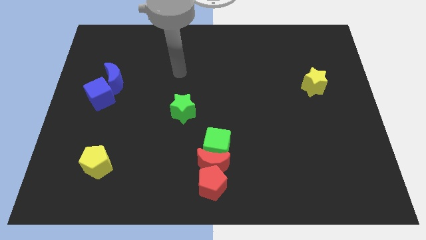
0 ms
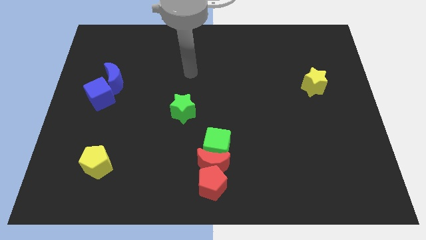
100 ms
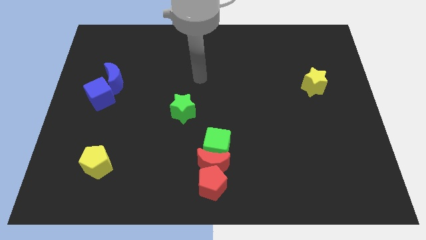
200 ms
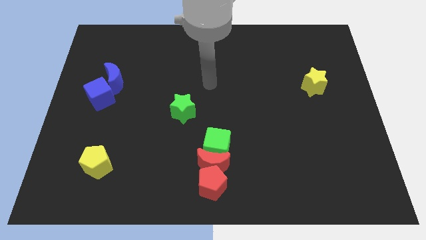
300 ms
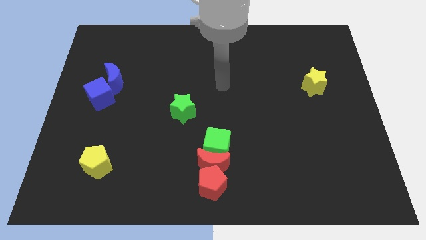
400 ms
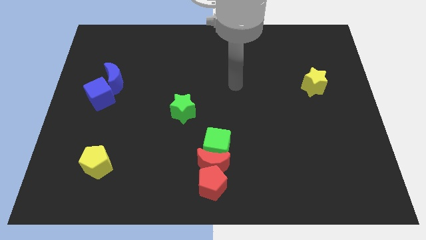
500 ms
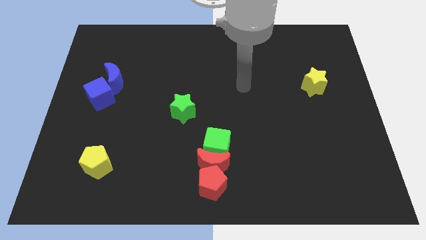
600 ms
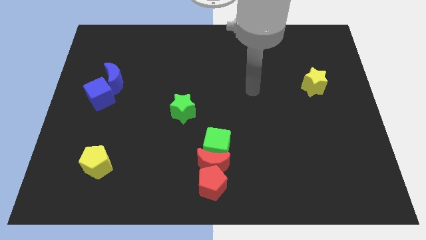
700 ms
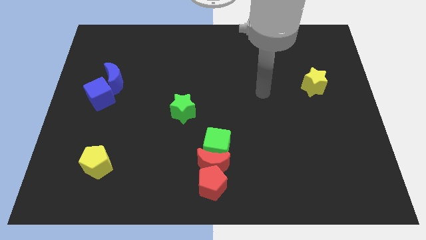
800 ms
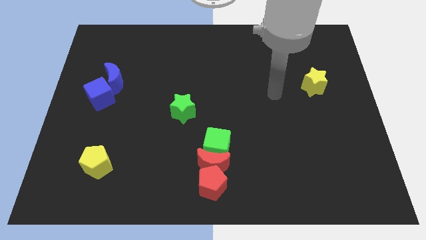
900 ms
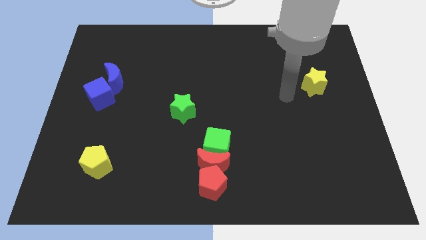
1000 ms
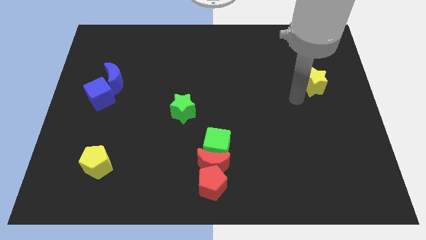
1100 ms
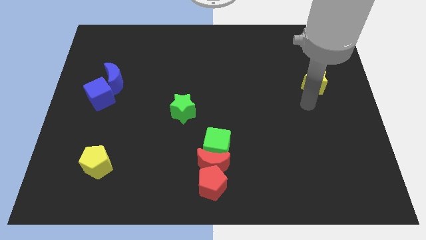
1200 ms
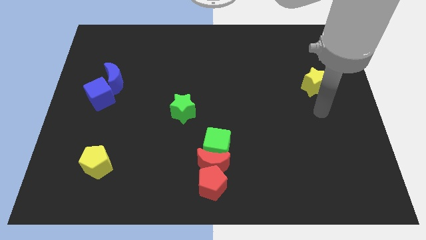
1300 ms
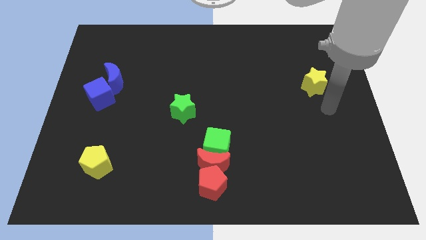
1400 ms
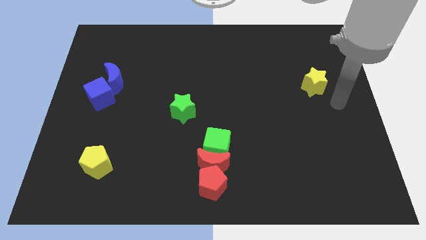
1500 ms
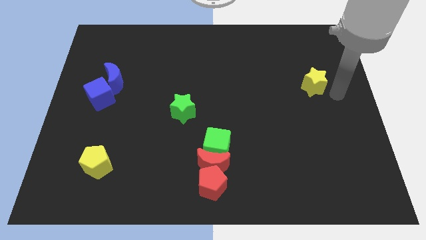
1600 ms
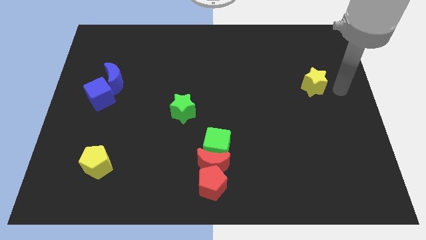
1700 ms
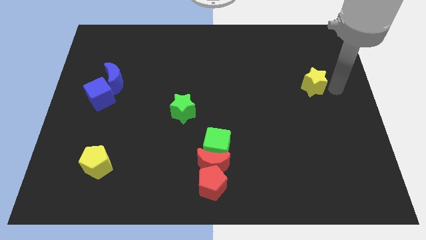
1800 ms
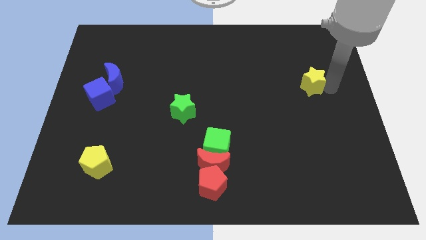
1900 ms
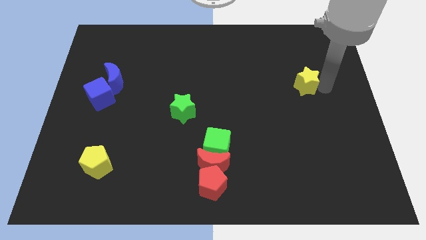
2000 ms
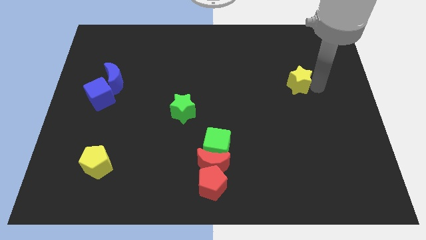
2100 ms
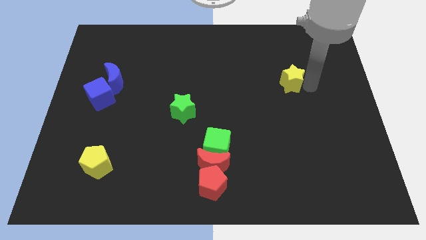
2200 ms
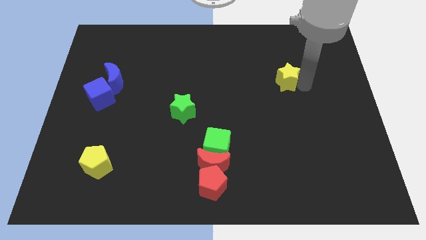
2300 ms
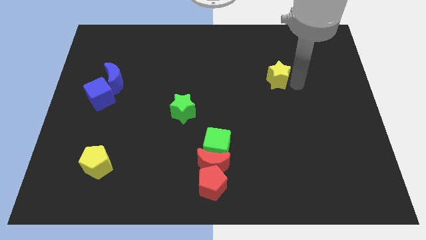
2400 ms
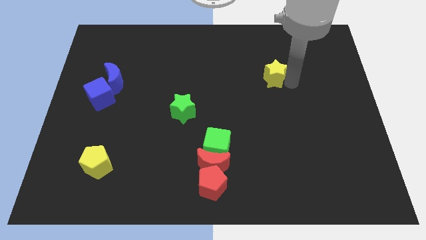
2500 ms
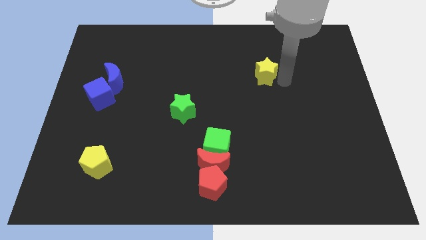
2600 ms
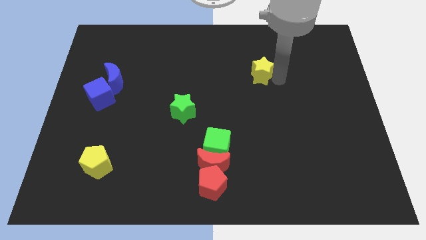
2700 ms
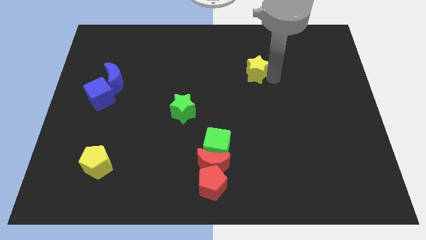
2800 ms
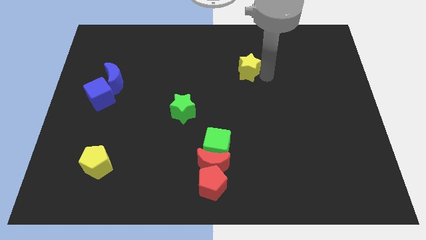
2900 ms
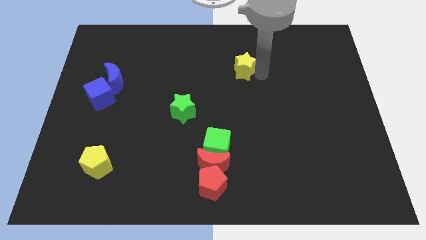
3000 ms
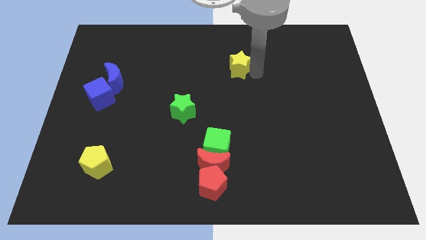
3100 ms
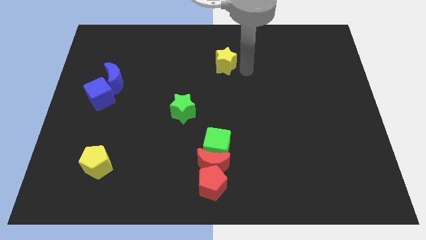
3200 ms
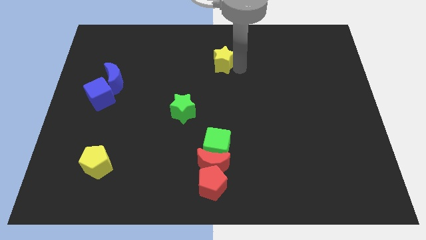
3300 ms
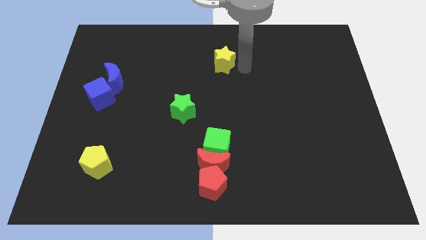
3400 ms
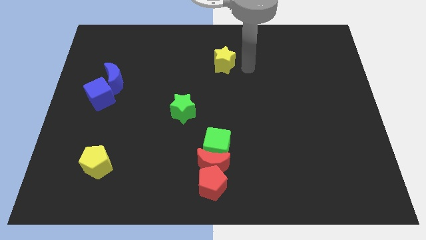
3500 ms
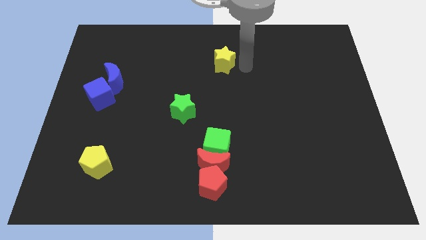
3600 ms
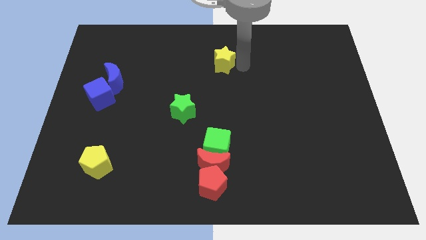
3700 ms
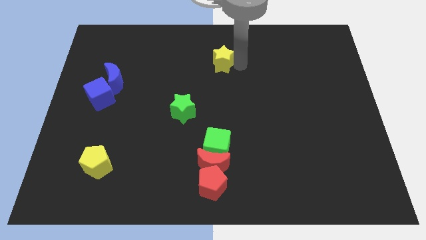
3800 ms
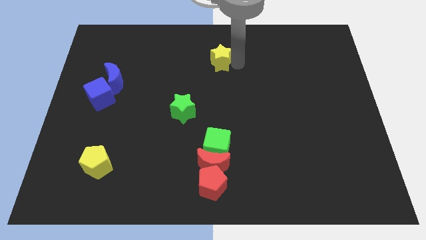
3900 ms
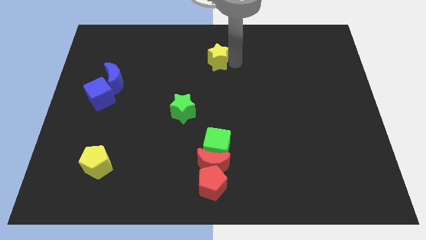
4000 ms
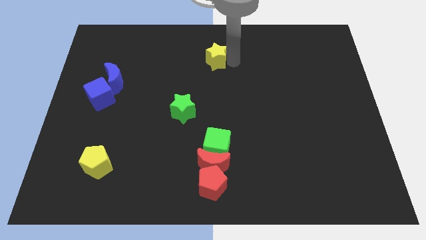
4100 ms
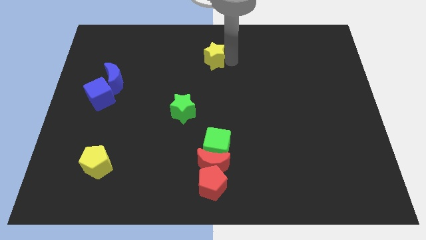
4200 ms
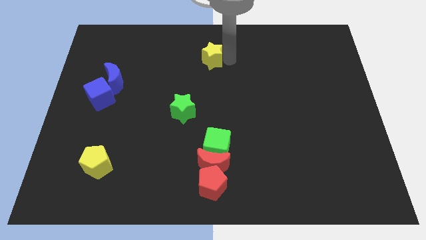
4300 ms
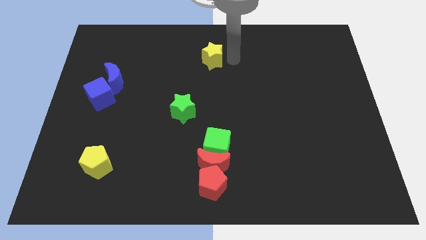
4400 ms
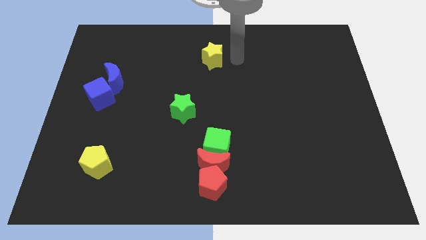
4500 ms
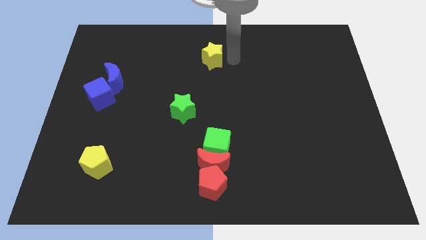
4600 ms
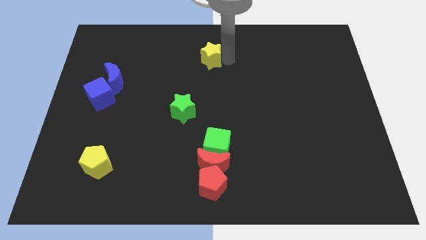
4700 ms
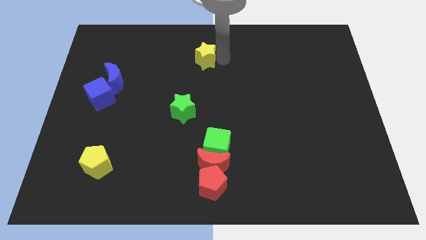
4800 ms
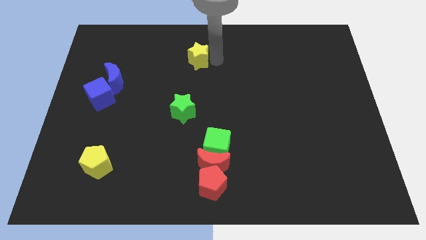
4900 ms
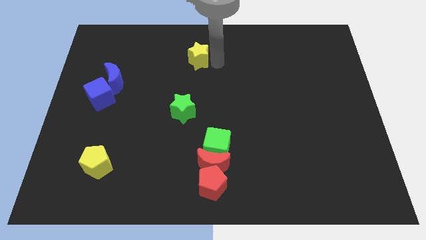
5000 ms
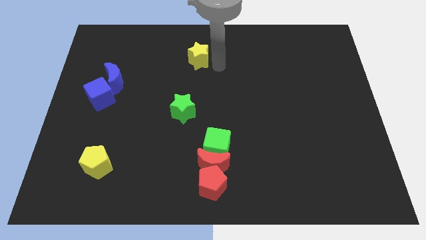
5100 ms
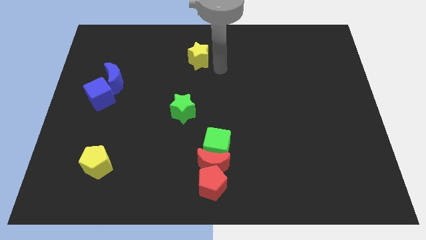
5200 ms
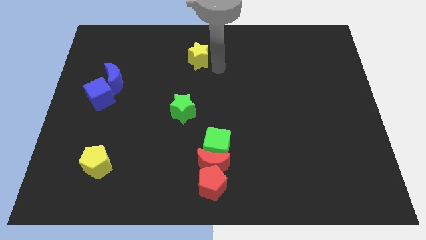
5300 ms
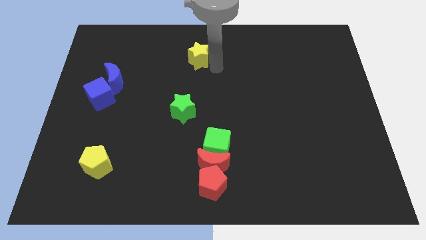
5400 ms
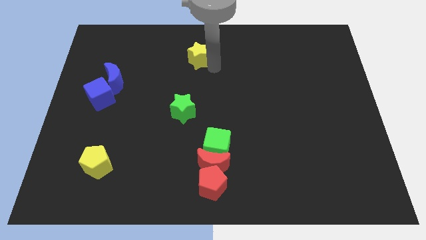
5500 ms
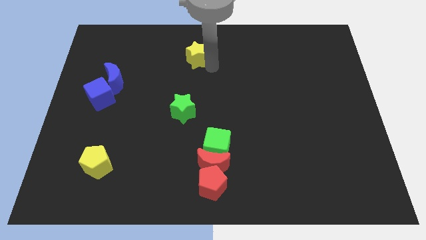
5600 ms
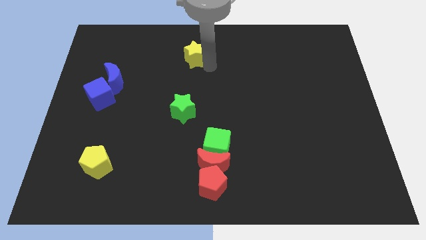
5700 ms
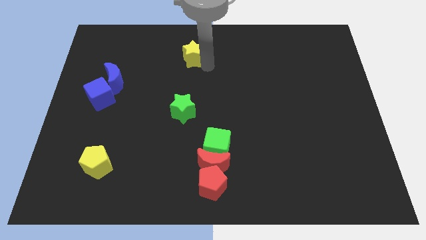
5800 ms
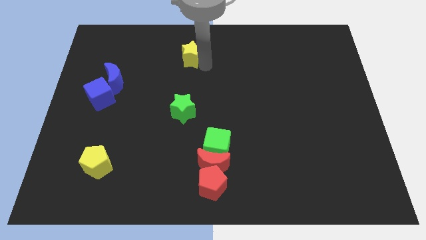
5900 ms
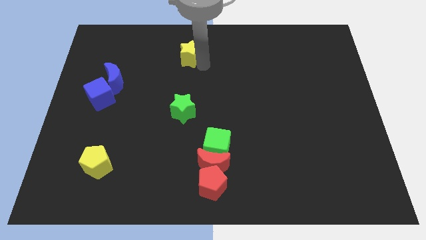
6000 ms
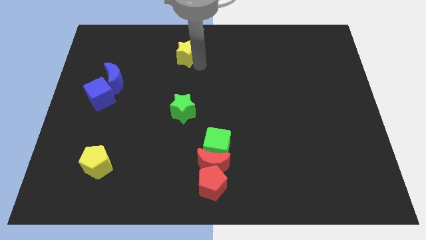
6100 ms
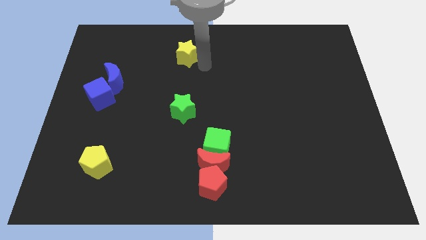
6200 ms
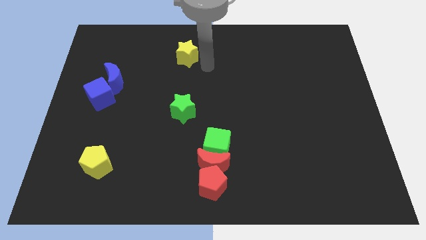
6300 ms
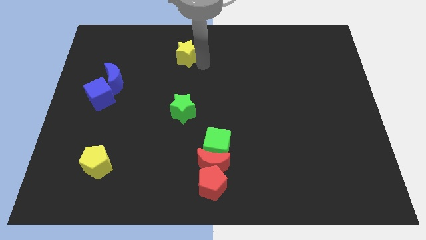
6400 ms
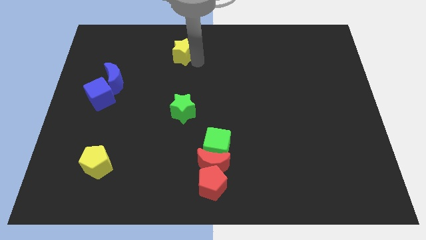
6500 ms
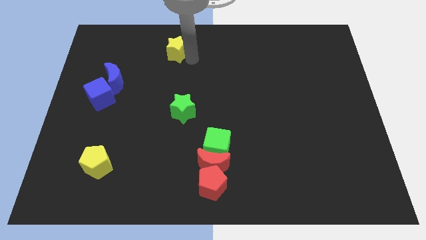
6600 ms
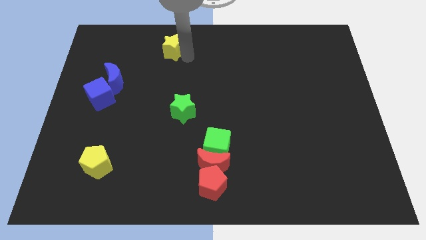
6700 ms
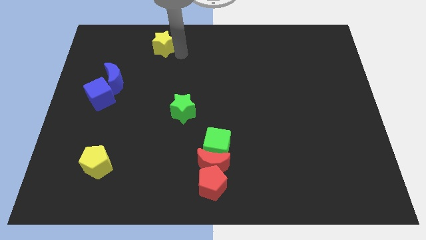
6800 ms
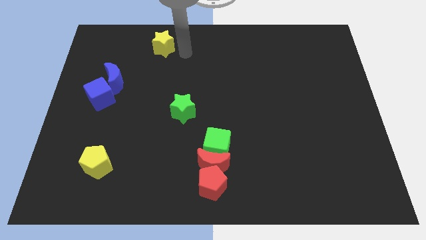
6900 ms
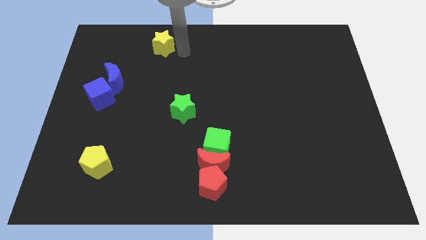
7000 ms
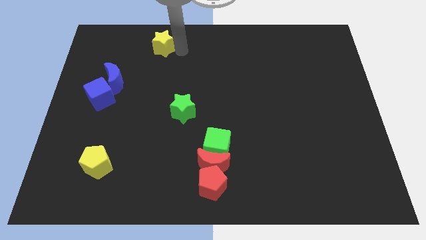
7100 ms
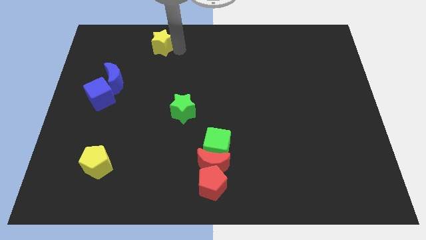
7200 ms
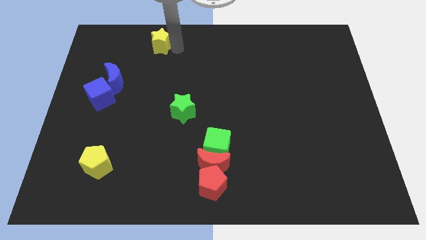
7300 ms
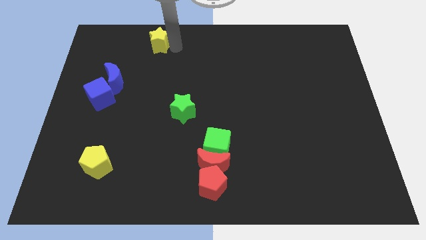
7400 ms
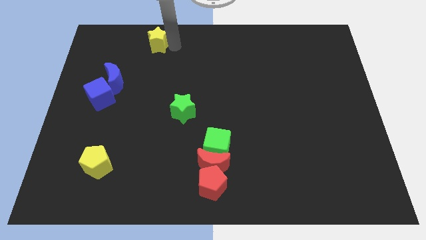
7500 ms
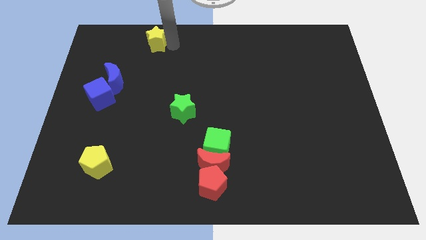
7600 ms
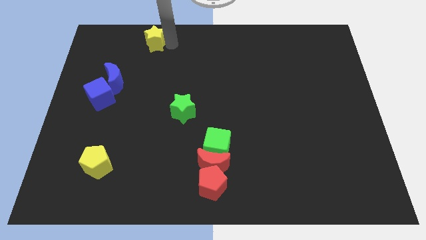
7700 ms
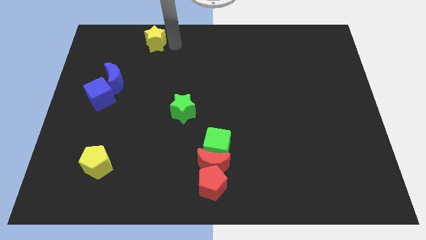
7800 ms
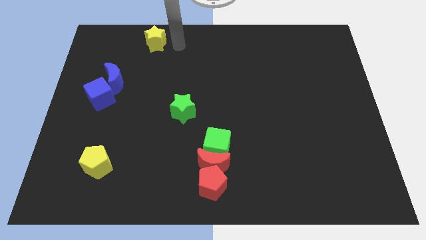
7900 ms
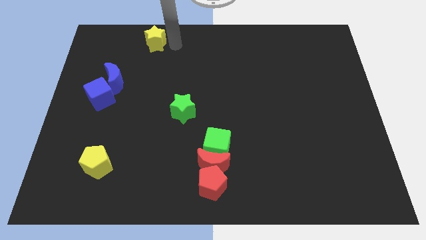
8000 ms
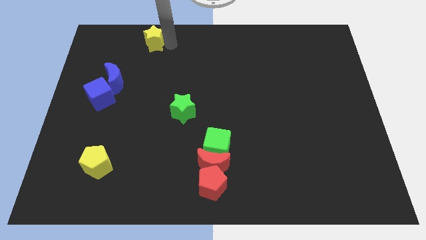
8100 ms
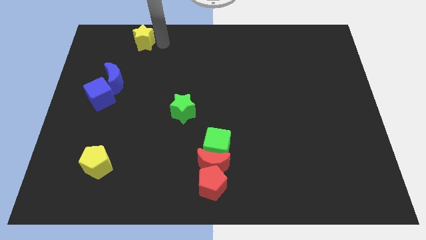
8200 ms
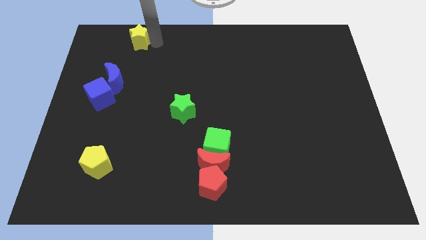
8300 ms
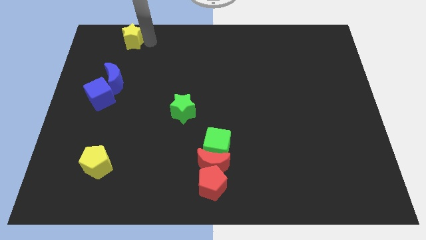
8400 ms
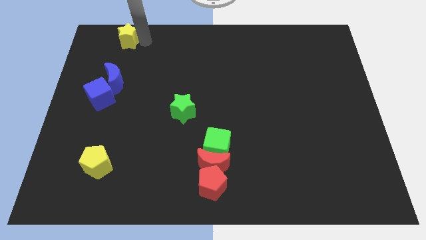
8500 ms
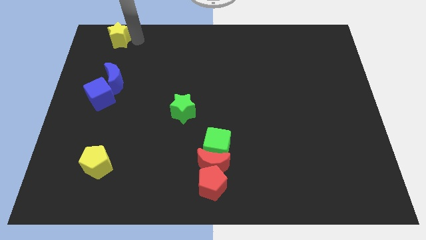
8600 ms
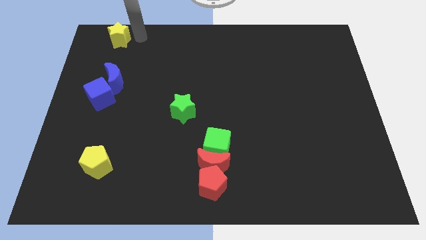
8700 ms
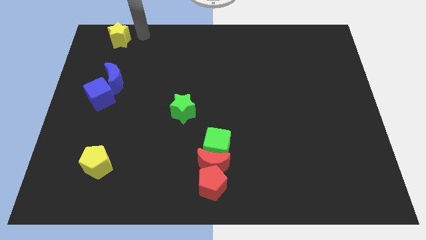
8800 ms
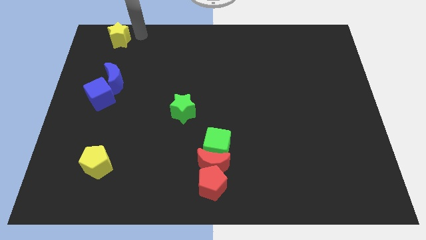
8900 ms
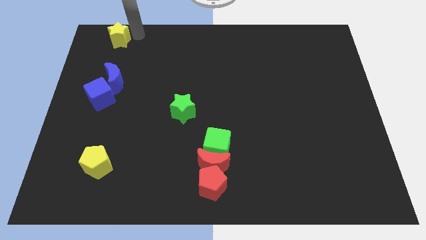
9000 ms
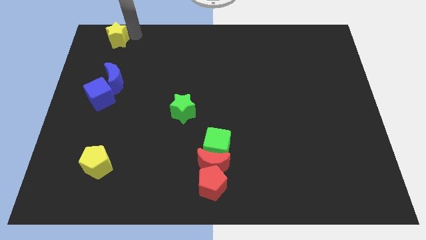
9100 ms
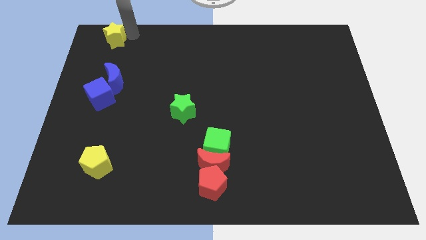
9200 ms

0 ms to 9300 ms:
push the yellow star to the top left of the board
